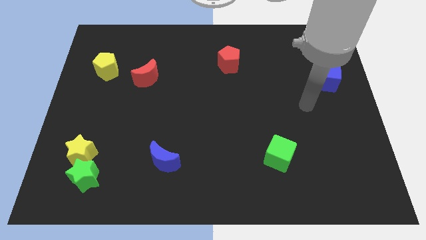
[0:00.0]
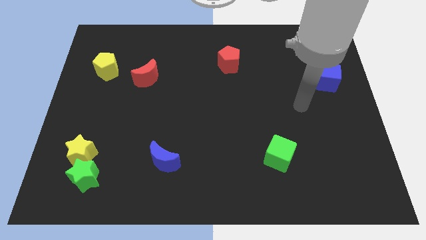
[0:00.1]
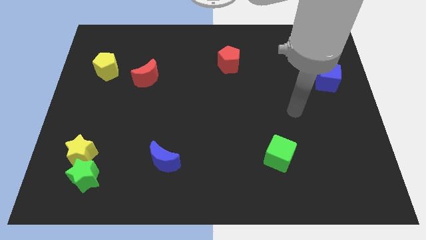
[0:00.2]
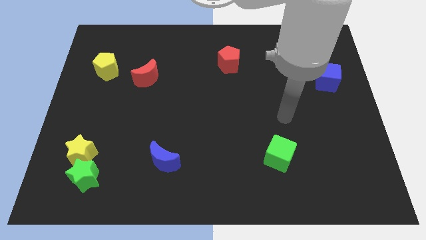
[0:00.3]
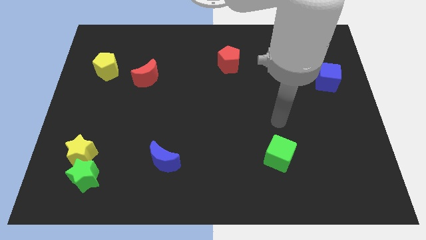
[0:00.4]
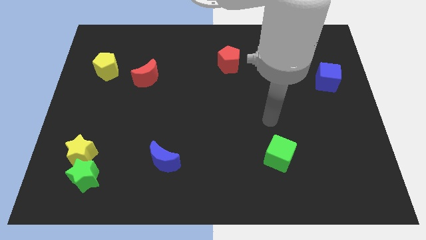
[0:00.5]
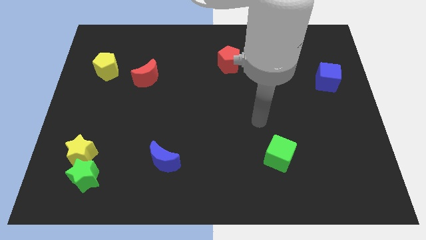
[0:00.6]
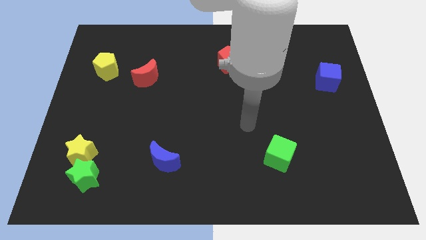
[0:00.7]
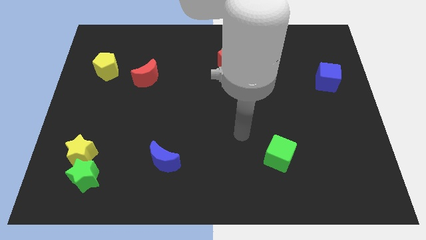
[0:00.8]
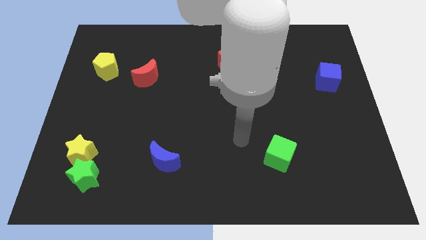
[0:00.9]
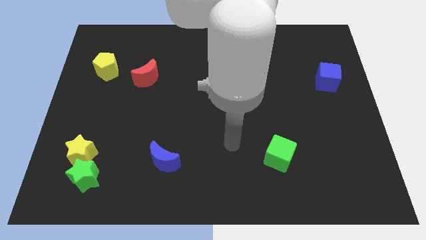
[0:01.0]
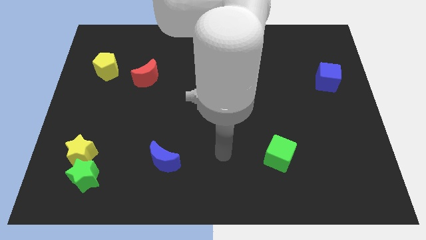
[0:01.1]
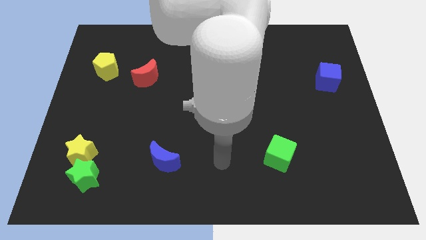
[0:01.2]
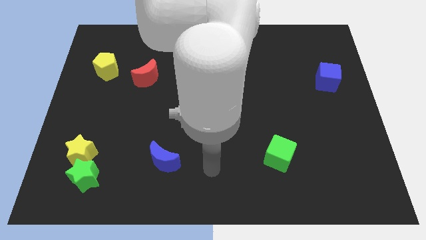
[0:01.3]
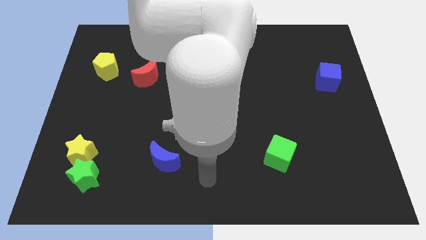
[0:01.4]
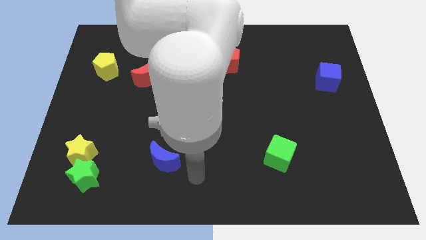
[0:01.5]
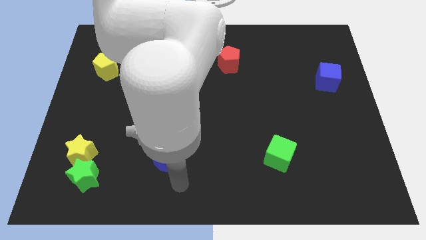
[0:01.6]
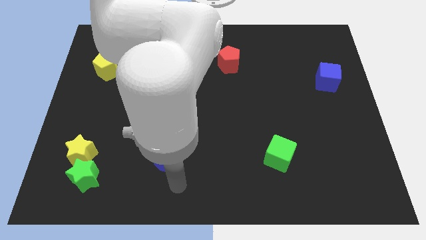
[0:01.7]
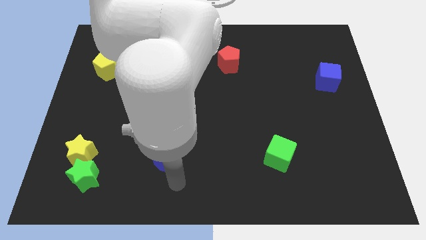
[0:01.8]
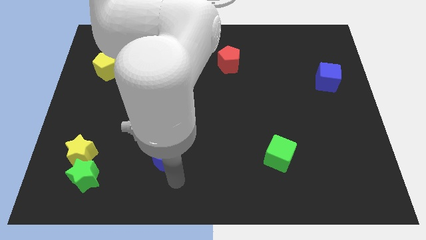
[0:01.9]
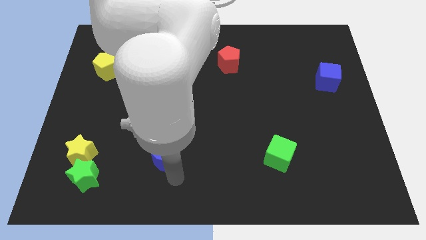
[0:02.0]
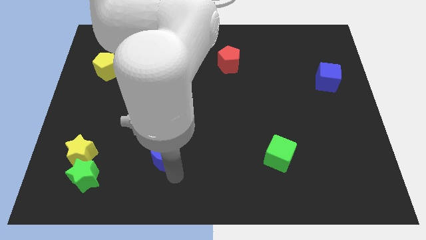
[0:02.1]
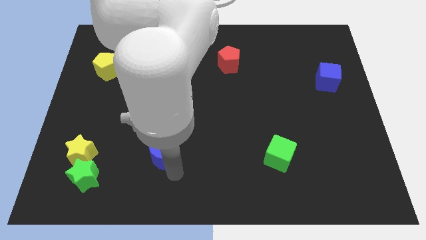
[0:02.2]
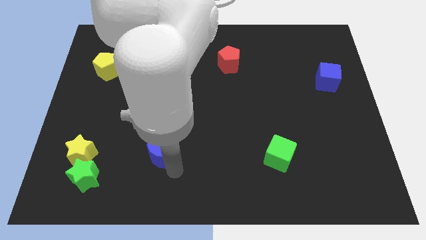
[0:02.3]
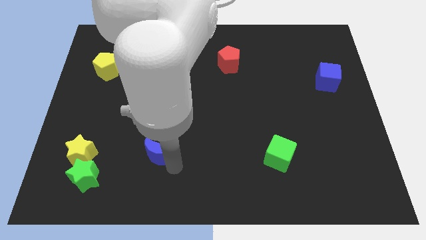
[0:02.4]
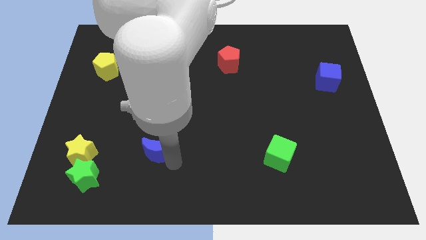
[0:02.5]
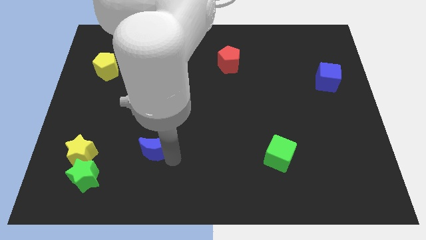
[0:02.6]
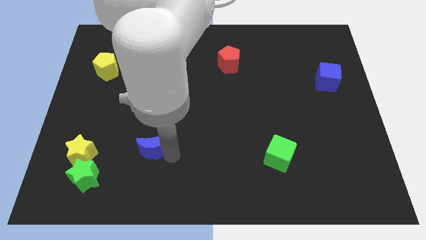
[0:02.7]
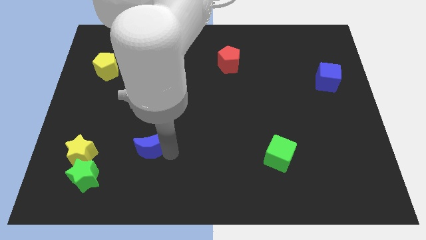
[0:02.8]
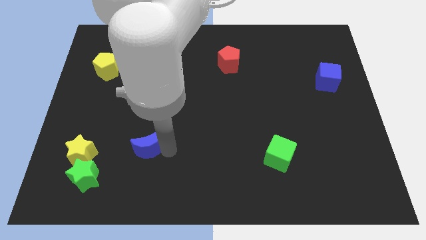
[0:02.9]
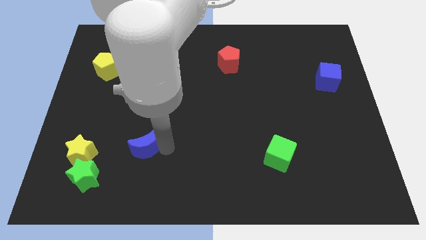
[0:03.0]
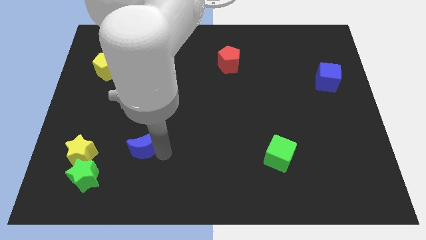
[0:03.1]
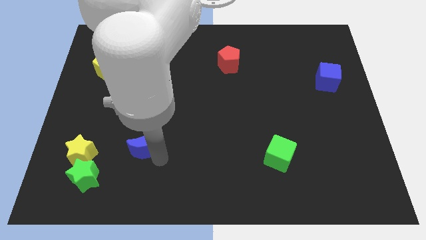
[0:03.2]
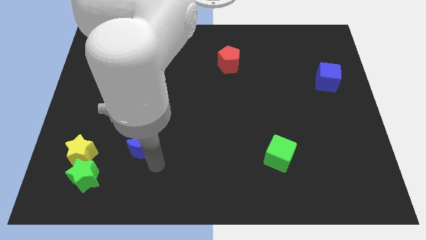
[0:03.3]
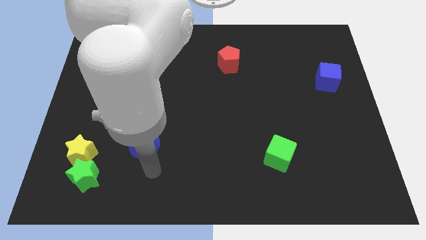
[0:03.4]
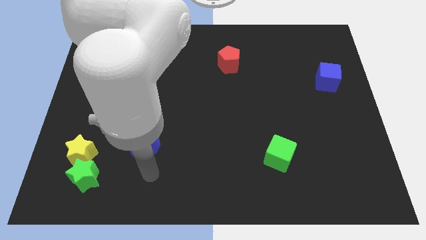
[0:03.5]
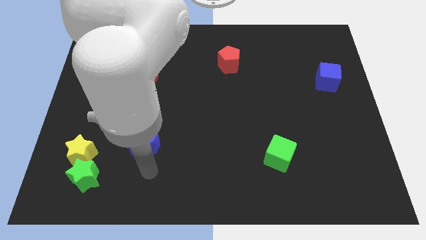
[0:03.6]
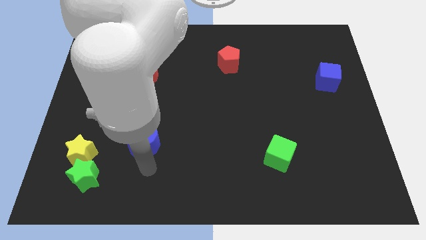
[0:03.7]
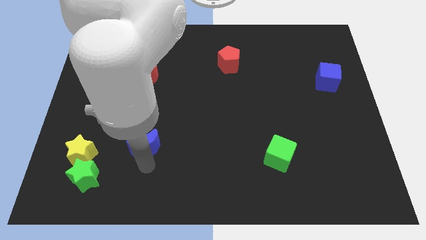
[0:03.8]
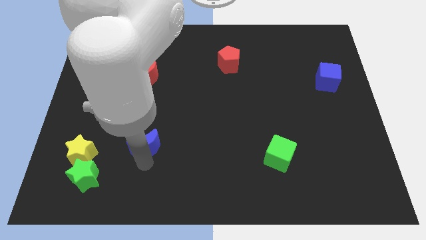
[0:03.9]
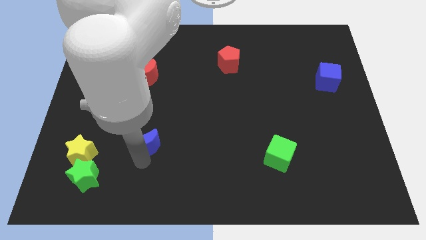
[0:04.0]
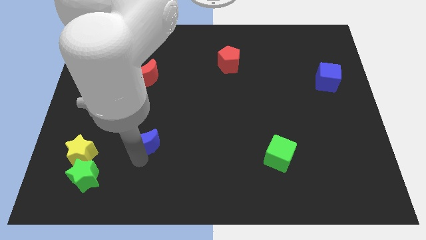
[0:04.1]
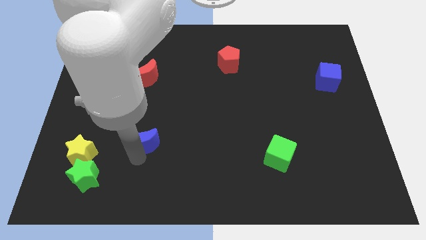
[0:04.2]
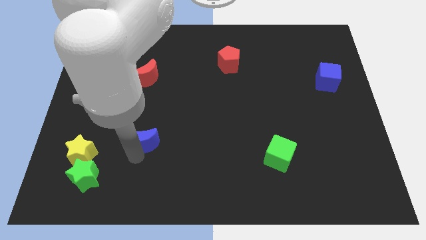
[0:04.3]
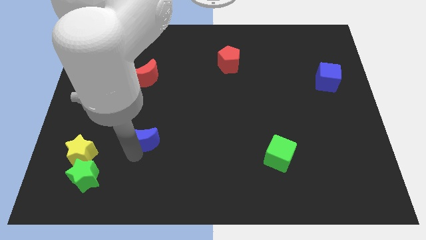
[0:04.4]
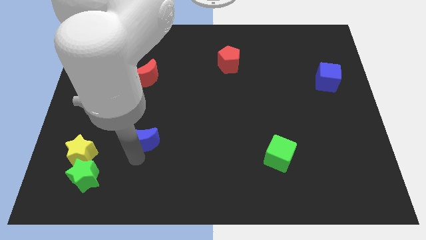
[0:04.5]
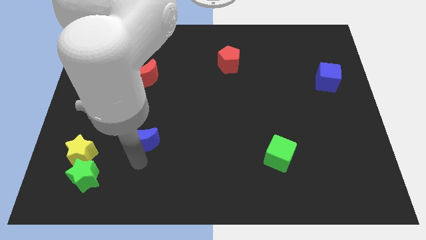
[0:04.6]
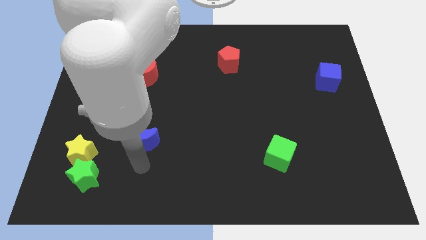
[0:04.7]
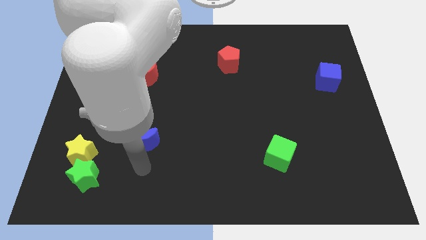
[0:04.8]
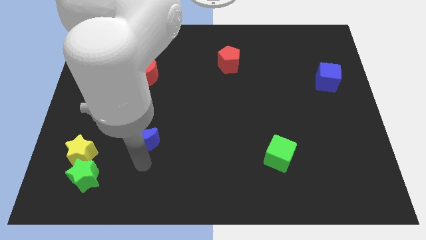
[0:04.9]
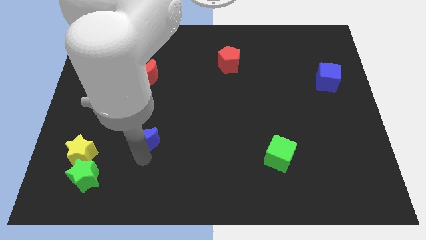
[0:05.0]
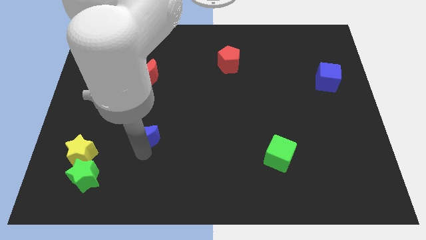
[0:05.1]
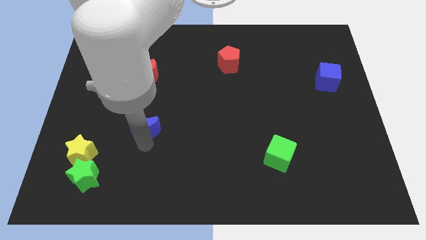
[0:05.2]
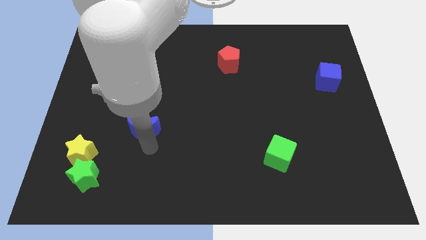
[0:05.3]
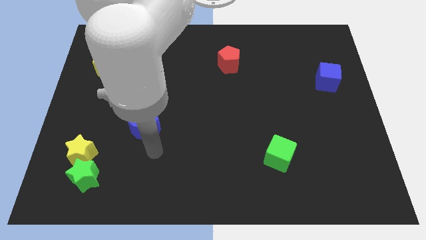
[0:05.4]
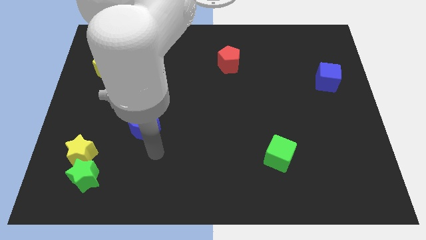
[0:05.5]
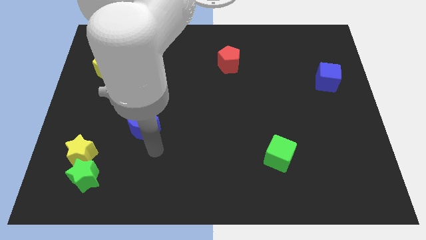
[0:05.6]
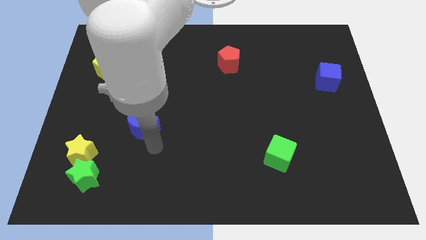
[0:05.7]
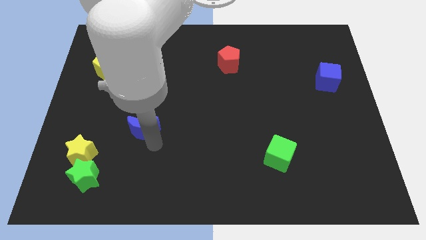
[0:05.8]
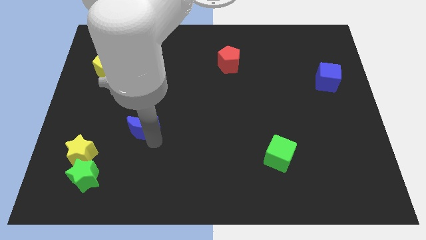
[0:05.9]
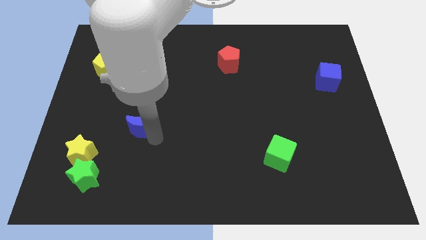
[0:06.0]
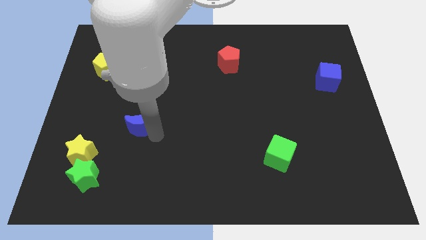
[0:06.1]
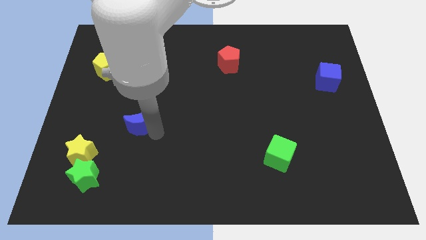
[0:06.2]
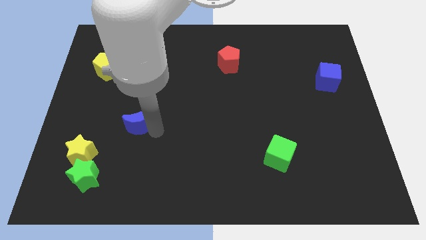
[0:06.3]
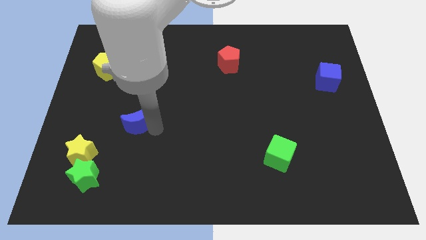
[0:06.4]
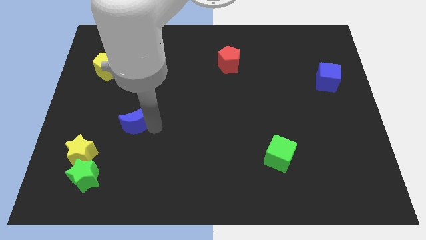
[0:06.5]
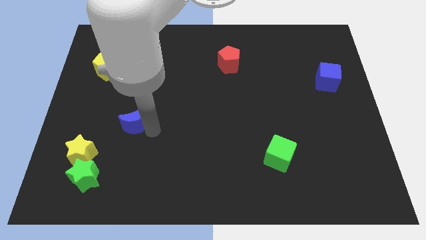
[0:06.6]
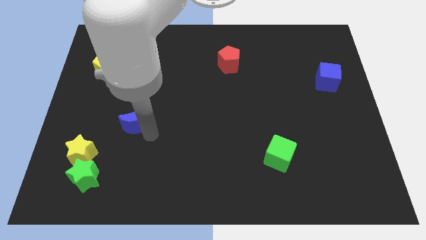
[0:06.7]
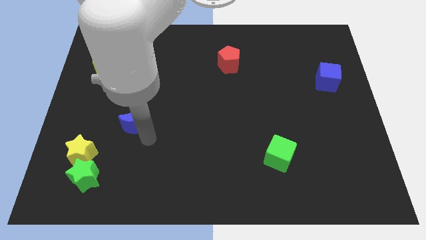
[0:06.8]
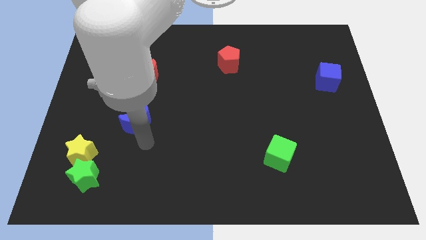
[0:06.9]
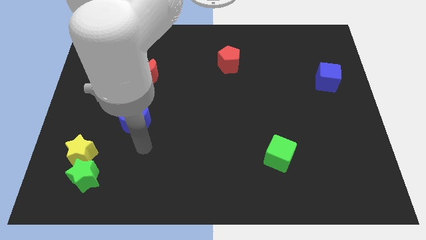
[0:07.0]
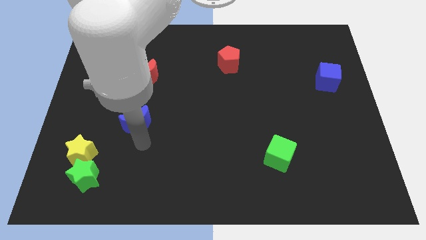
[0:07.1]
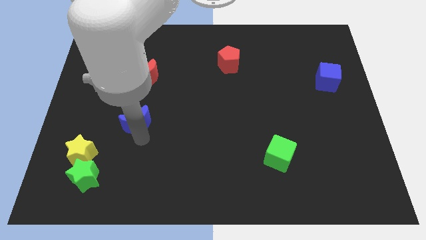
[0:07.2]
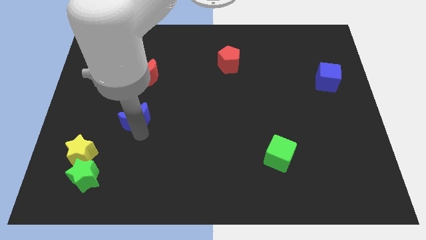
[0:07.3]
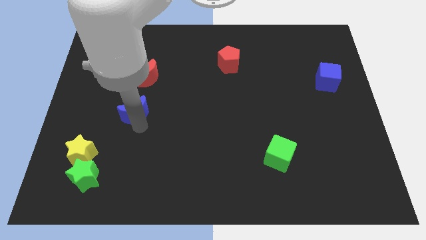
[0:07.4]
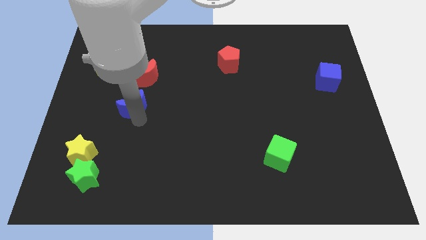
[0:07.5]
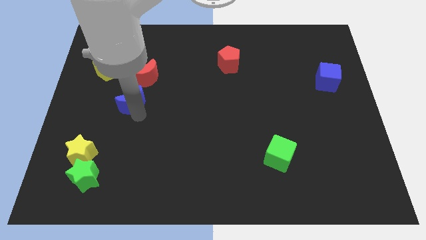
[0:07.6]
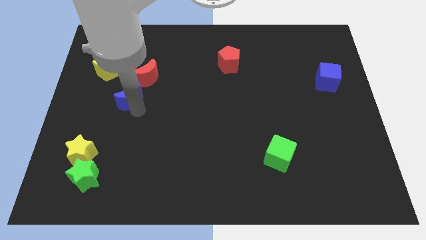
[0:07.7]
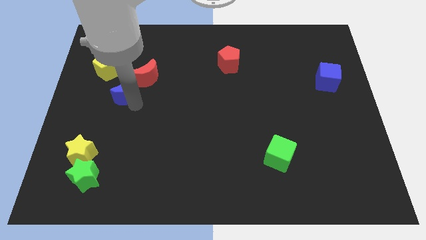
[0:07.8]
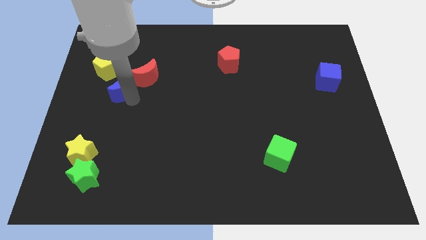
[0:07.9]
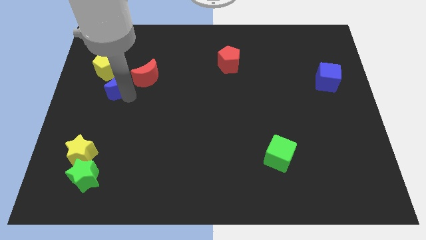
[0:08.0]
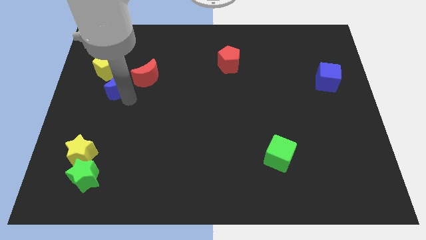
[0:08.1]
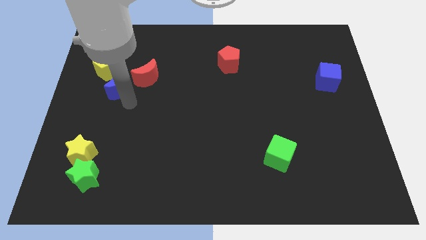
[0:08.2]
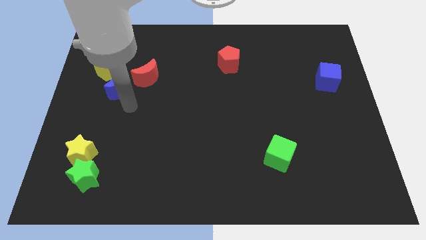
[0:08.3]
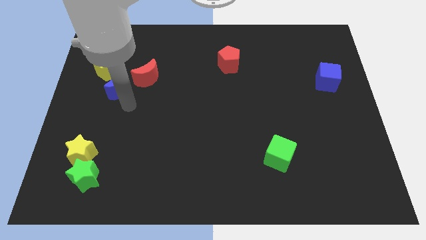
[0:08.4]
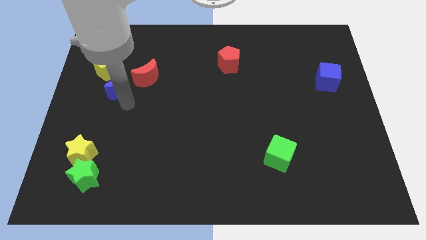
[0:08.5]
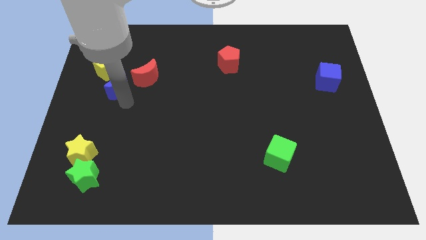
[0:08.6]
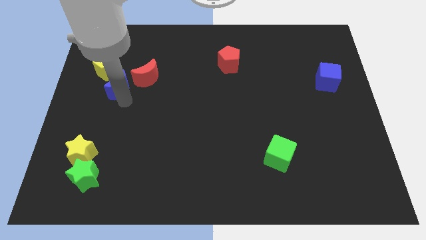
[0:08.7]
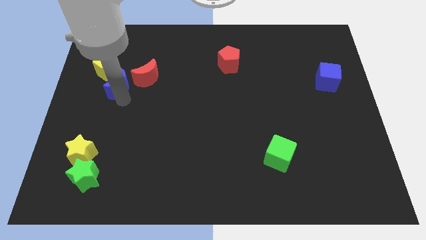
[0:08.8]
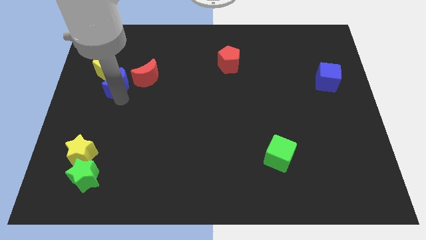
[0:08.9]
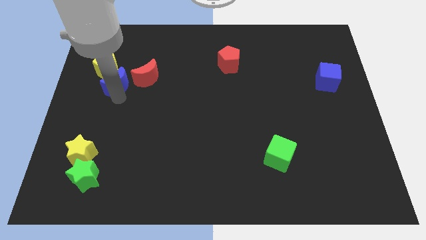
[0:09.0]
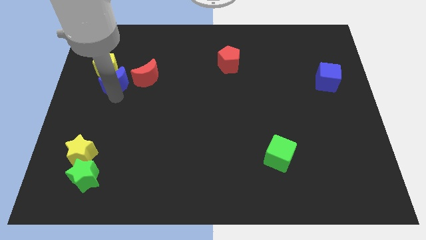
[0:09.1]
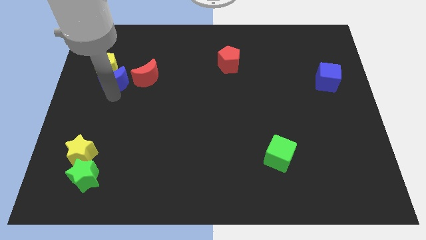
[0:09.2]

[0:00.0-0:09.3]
put the blue moon next to the yellow pentagon
